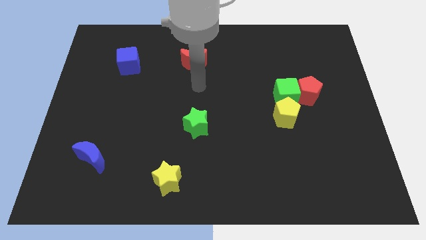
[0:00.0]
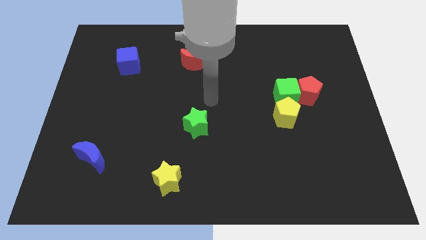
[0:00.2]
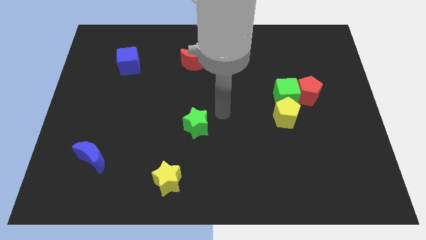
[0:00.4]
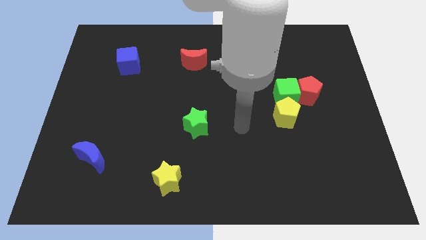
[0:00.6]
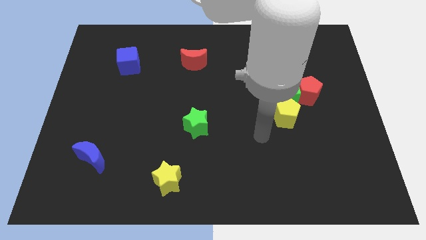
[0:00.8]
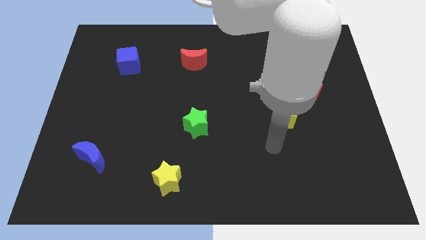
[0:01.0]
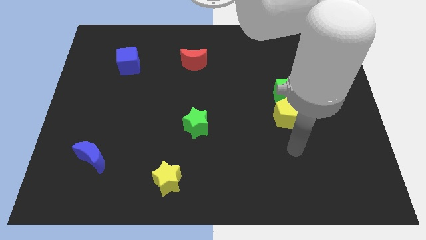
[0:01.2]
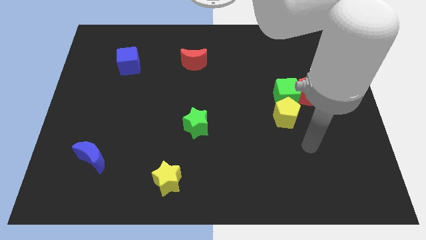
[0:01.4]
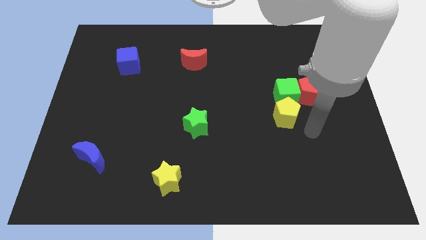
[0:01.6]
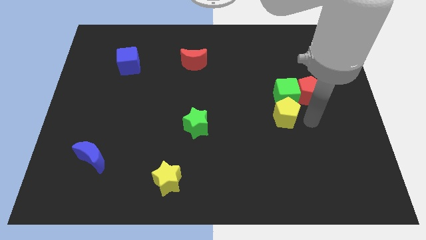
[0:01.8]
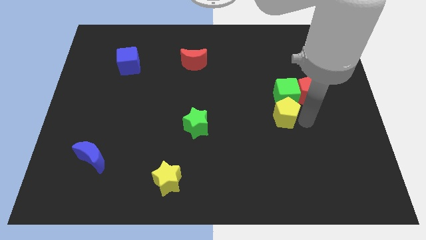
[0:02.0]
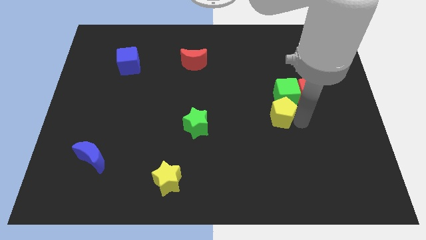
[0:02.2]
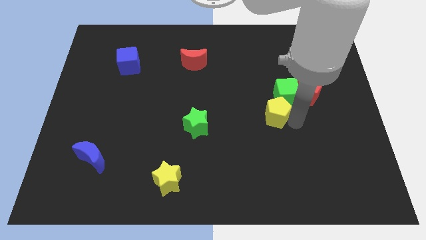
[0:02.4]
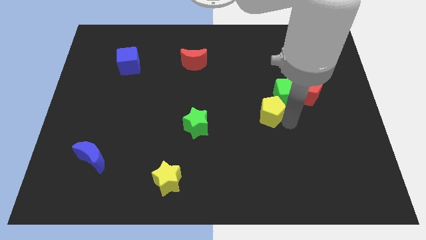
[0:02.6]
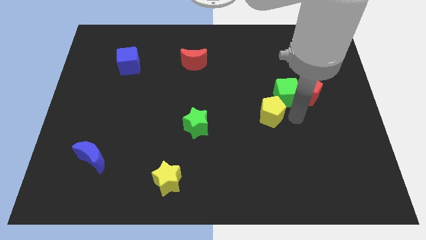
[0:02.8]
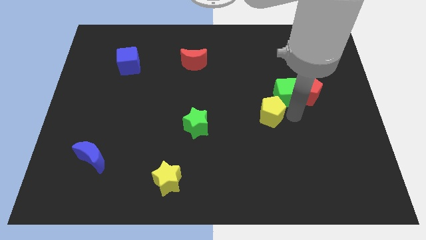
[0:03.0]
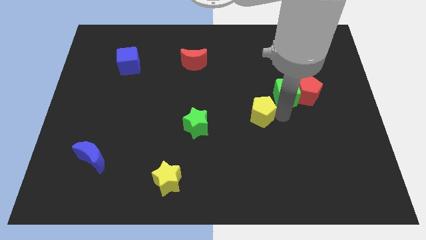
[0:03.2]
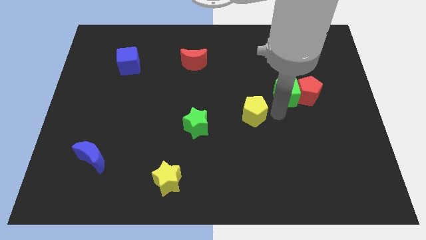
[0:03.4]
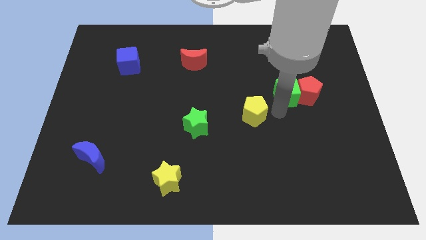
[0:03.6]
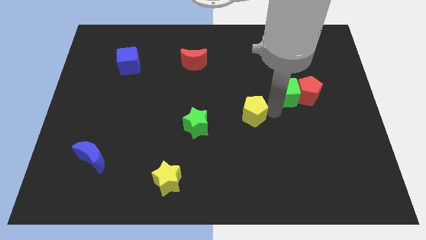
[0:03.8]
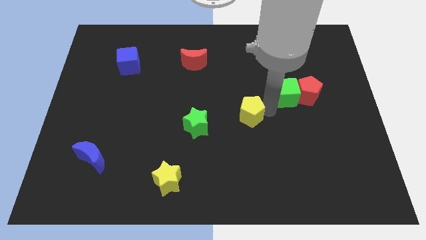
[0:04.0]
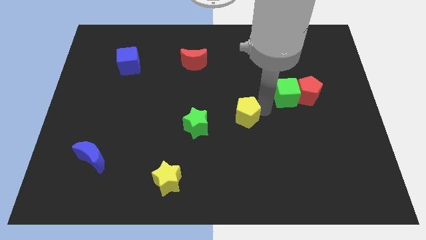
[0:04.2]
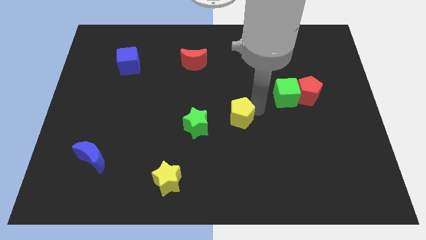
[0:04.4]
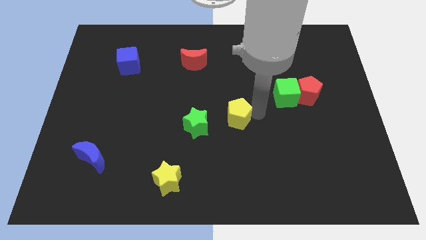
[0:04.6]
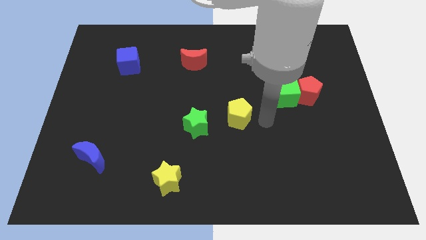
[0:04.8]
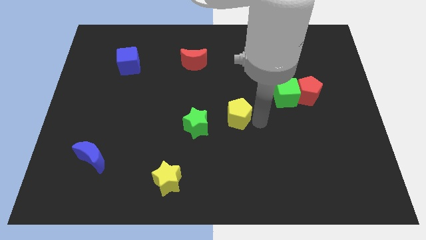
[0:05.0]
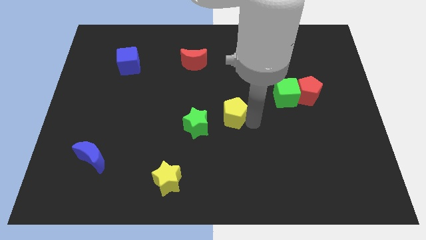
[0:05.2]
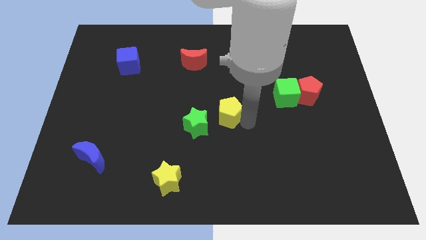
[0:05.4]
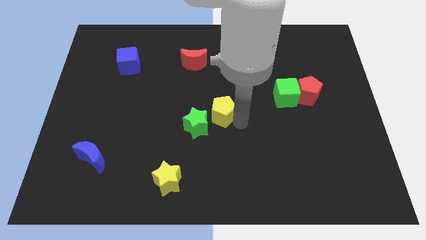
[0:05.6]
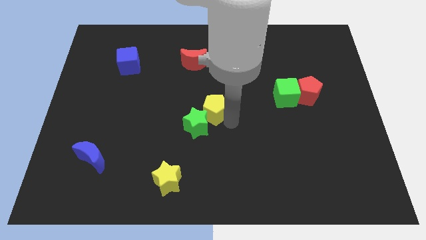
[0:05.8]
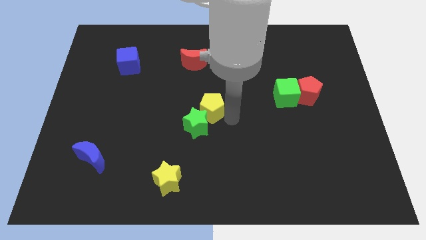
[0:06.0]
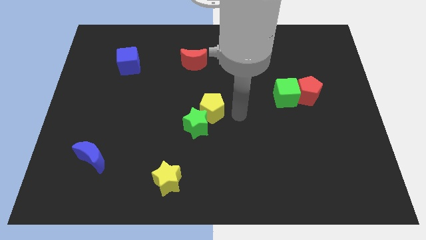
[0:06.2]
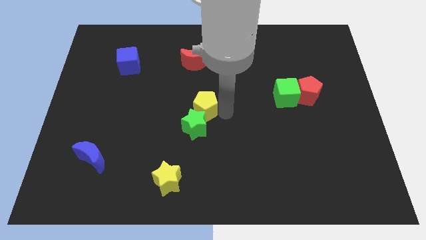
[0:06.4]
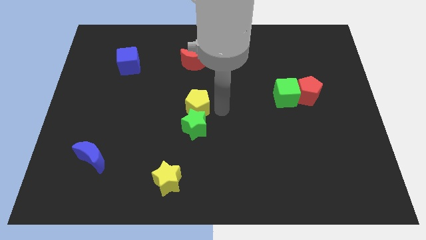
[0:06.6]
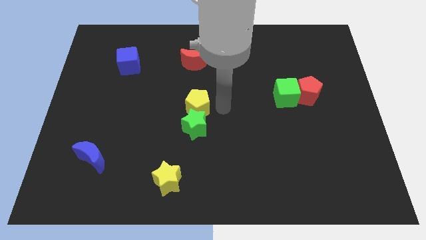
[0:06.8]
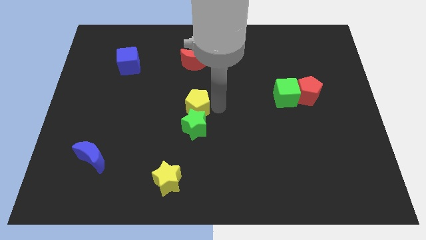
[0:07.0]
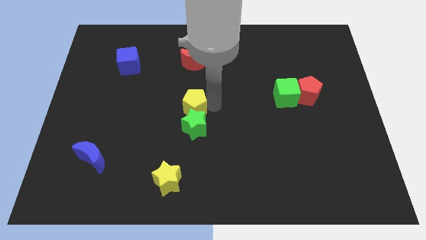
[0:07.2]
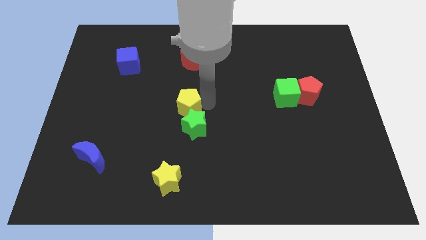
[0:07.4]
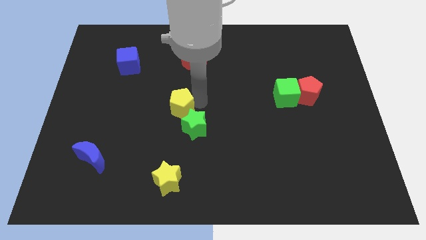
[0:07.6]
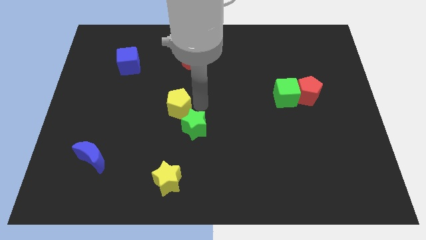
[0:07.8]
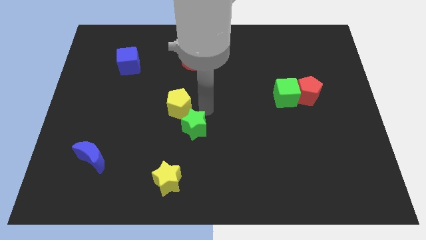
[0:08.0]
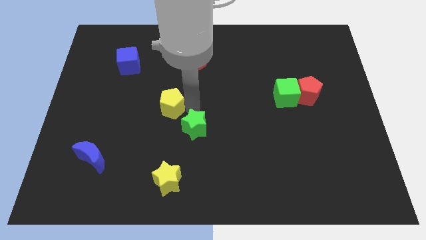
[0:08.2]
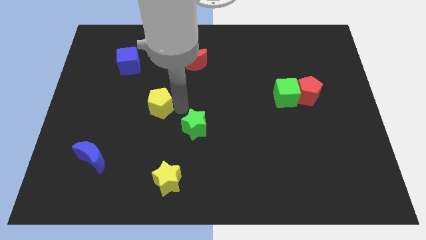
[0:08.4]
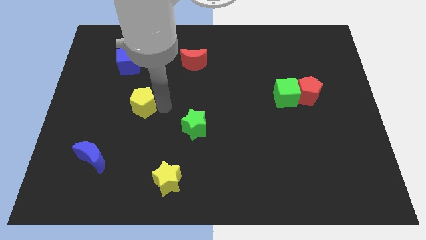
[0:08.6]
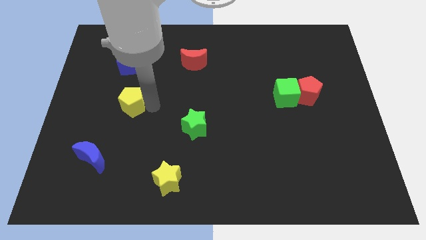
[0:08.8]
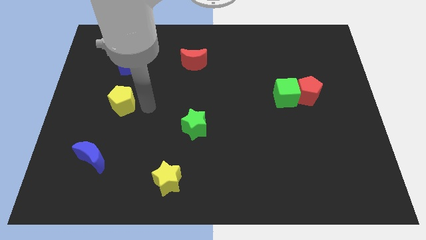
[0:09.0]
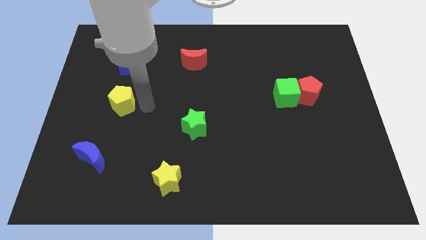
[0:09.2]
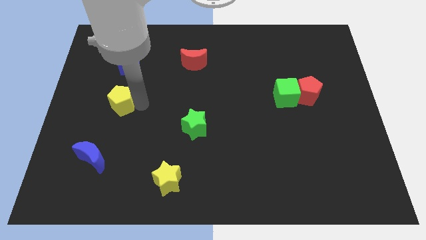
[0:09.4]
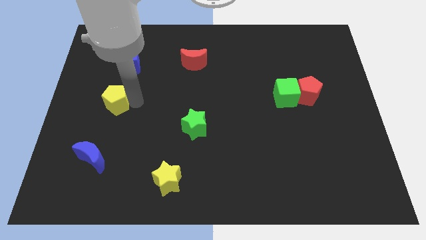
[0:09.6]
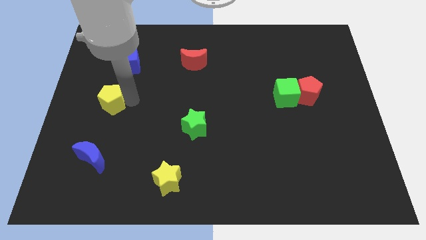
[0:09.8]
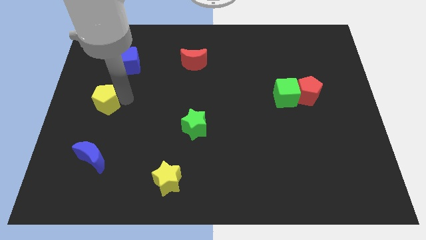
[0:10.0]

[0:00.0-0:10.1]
slide the yellow pentagon to the center left

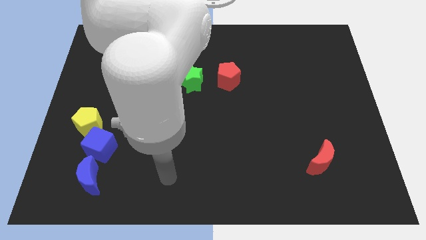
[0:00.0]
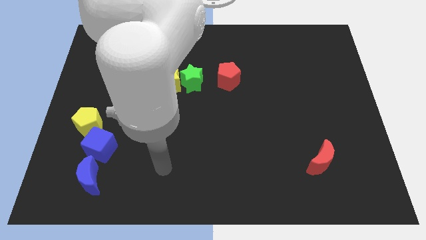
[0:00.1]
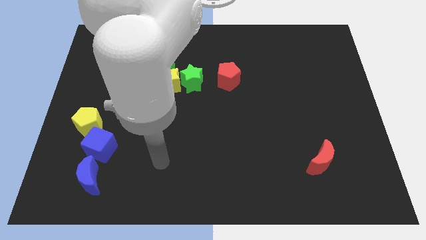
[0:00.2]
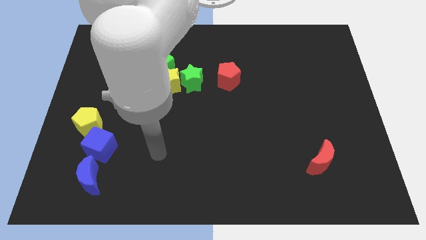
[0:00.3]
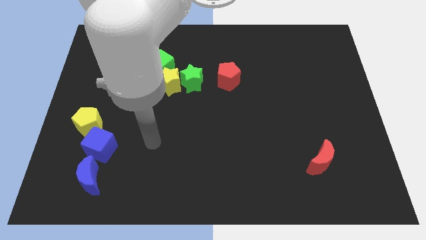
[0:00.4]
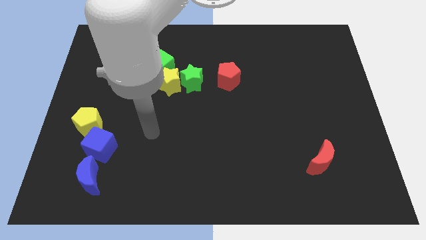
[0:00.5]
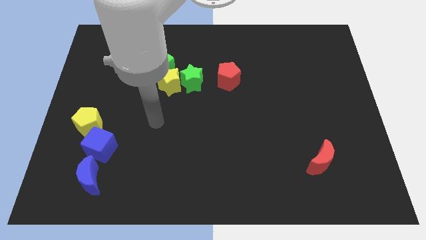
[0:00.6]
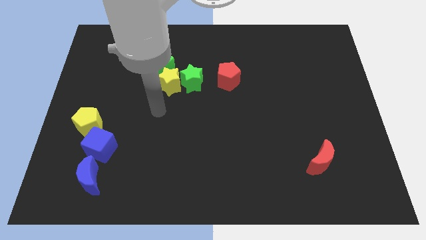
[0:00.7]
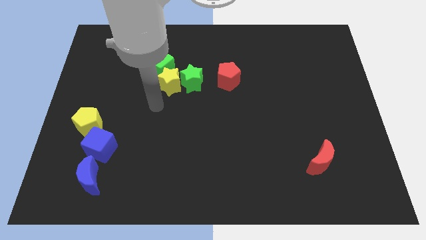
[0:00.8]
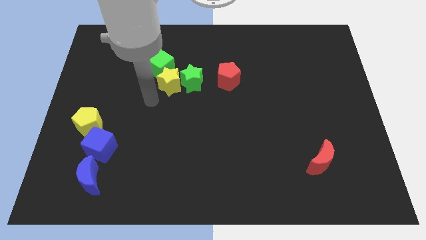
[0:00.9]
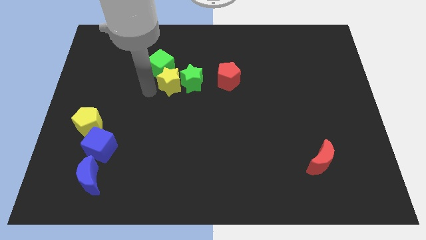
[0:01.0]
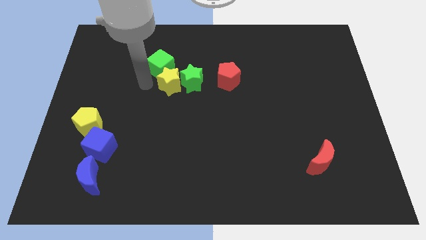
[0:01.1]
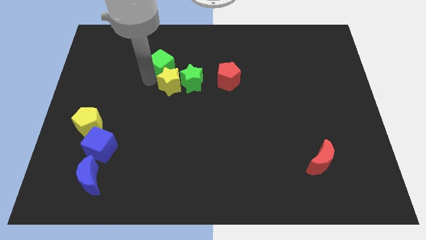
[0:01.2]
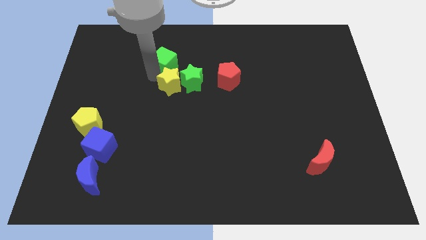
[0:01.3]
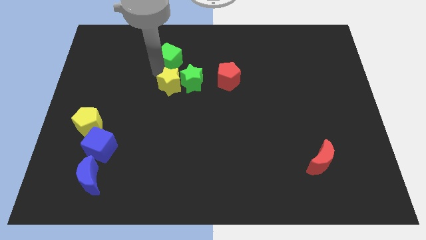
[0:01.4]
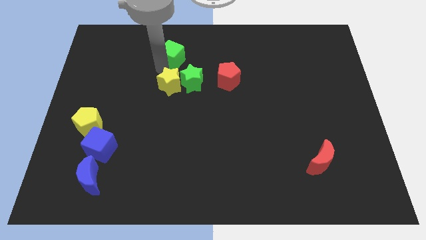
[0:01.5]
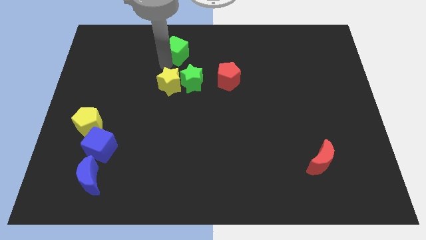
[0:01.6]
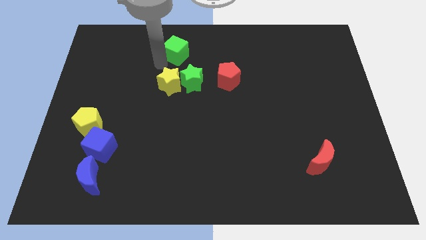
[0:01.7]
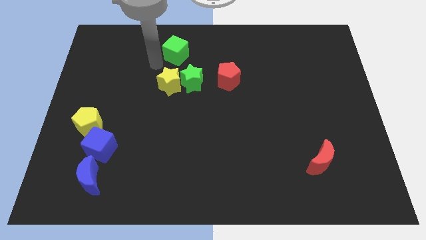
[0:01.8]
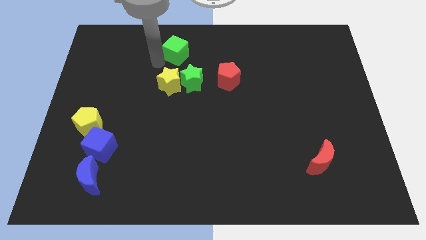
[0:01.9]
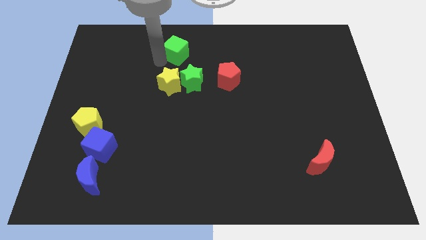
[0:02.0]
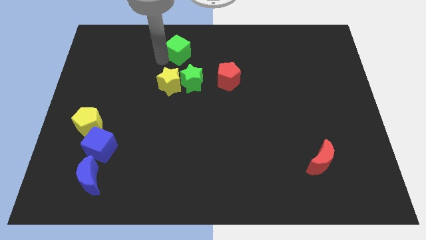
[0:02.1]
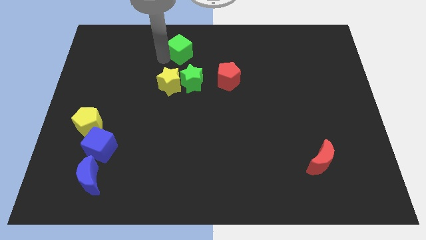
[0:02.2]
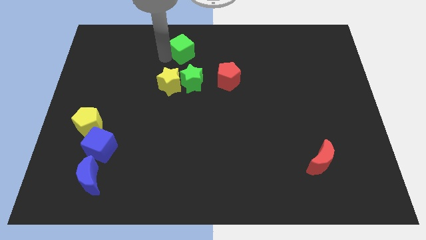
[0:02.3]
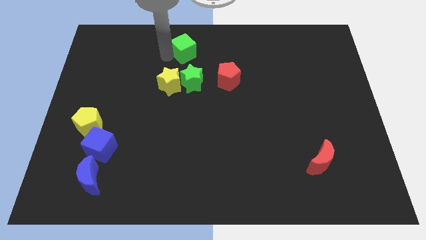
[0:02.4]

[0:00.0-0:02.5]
move the green cube to the top

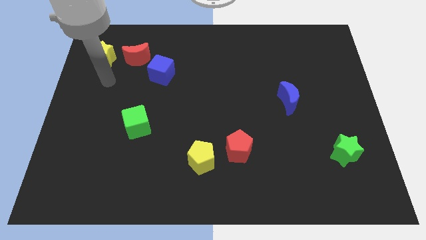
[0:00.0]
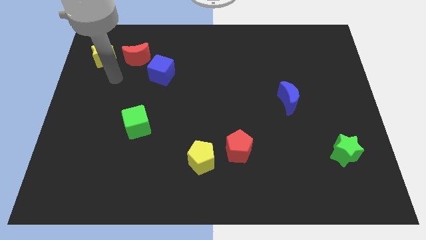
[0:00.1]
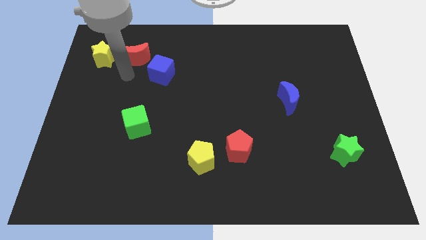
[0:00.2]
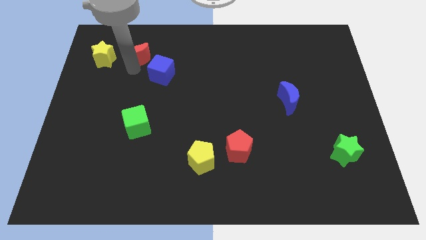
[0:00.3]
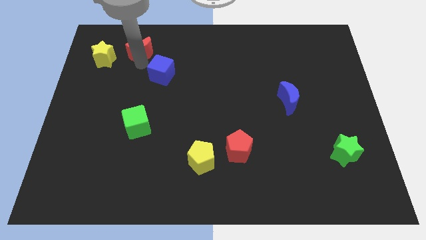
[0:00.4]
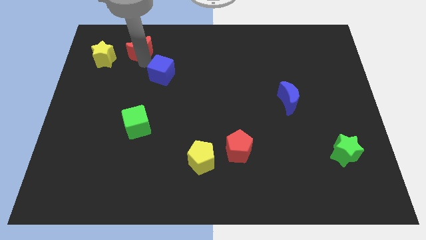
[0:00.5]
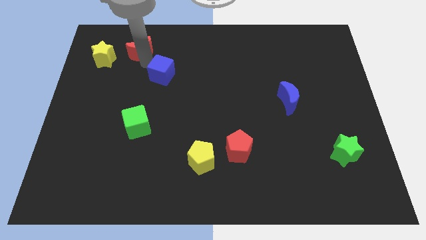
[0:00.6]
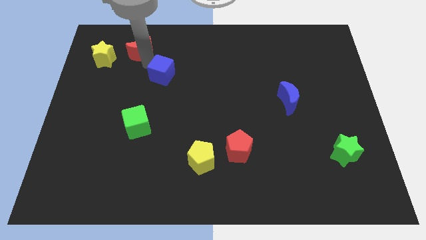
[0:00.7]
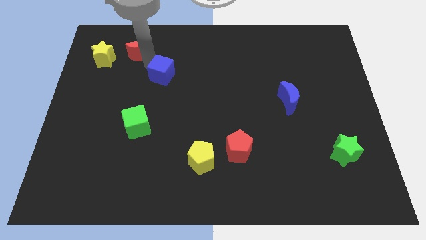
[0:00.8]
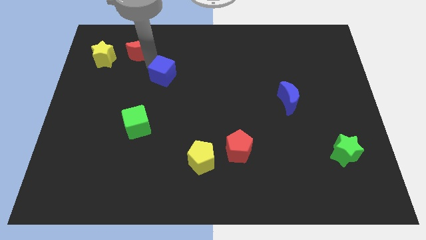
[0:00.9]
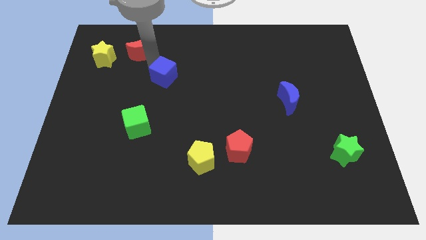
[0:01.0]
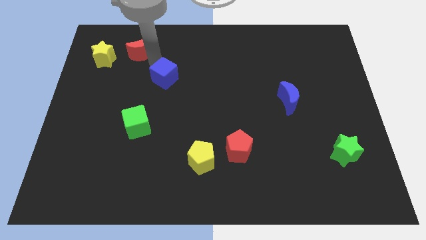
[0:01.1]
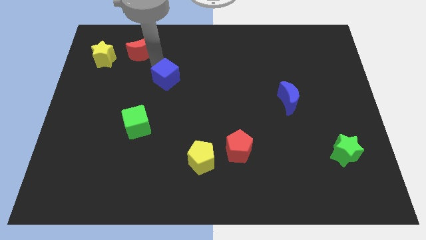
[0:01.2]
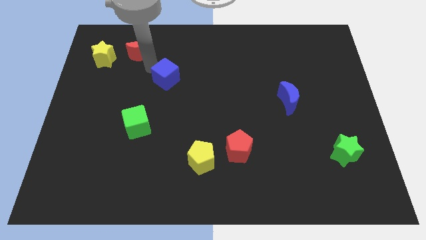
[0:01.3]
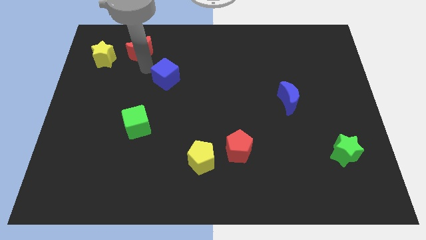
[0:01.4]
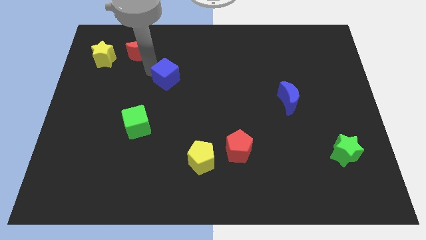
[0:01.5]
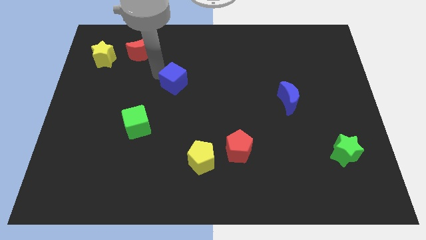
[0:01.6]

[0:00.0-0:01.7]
put the blue cube to the center of the board
